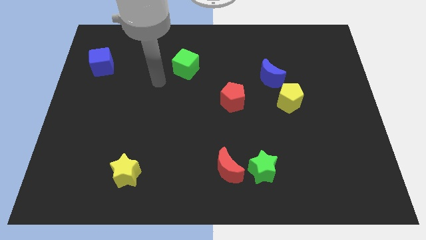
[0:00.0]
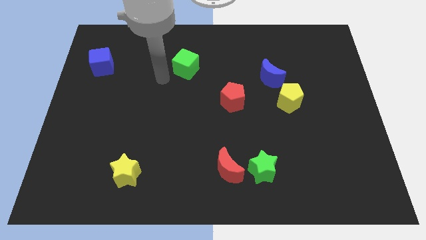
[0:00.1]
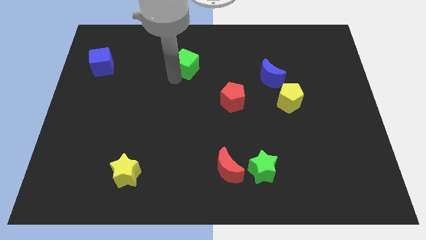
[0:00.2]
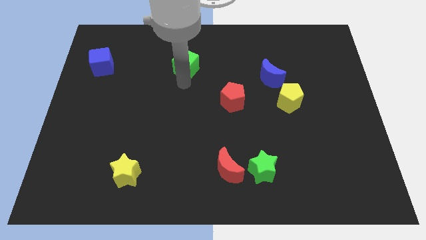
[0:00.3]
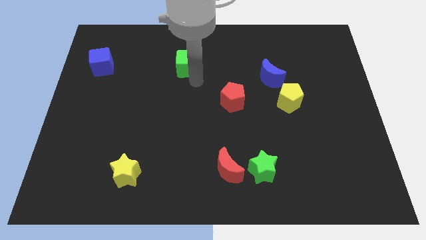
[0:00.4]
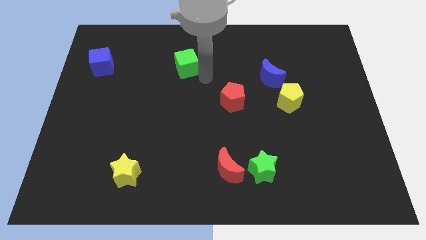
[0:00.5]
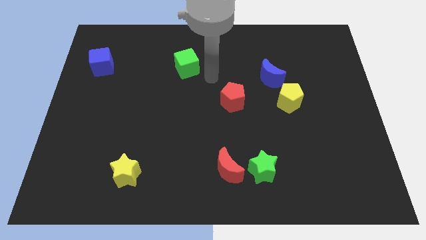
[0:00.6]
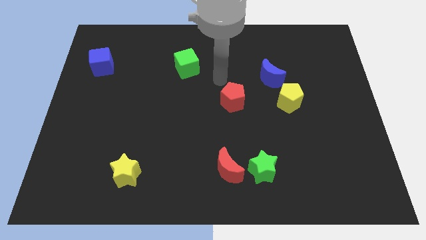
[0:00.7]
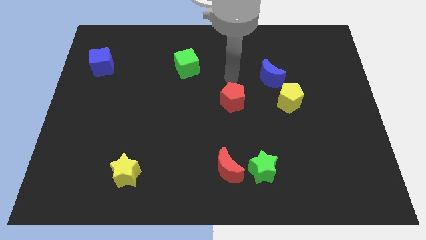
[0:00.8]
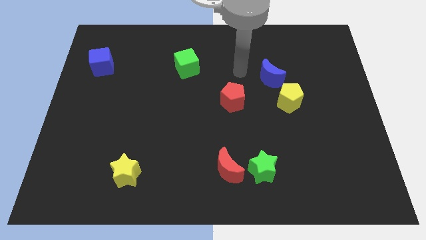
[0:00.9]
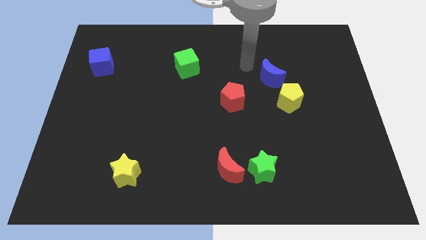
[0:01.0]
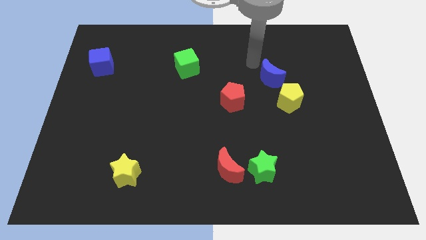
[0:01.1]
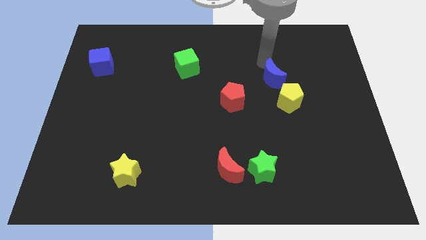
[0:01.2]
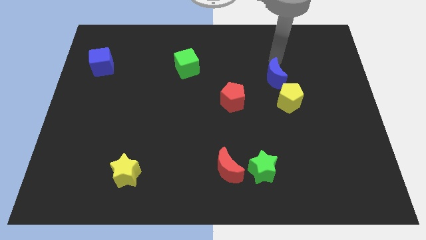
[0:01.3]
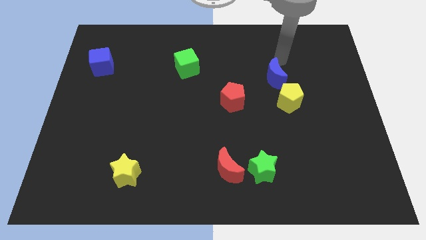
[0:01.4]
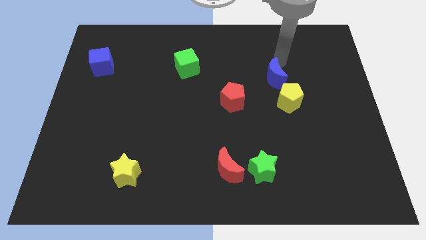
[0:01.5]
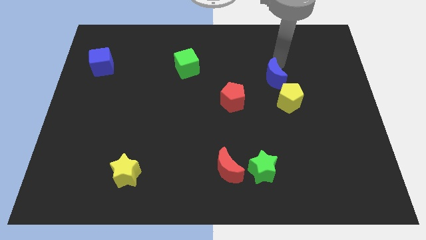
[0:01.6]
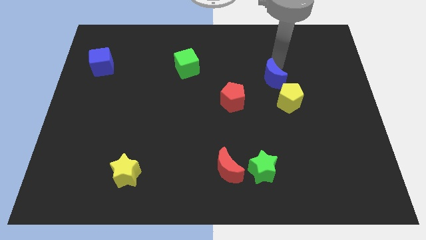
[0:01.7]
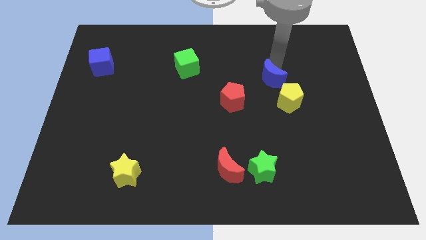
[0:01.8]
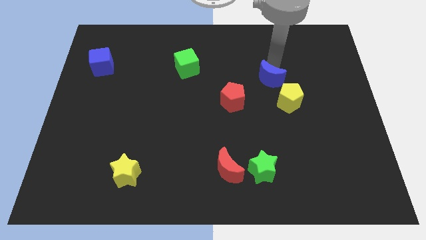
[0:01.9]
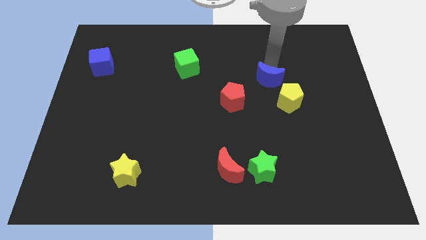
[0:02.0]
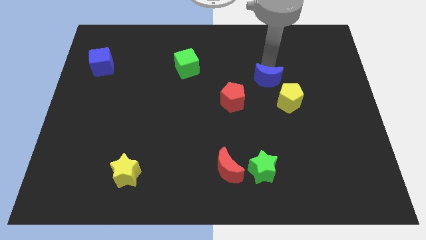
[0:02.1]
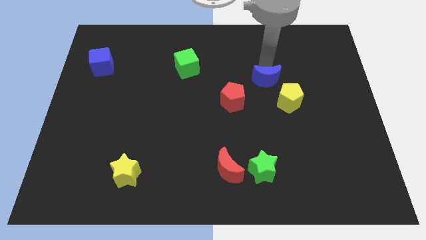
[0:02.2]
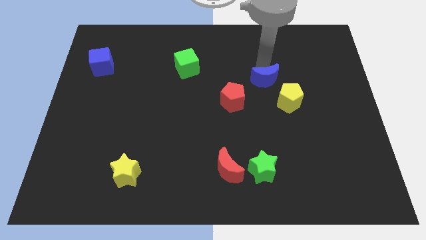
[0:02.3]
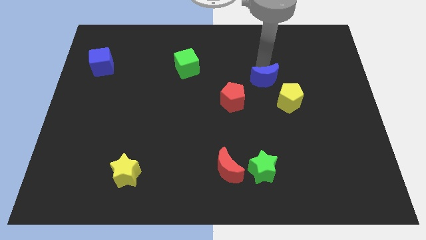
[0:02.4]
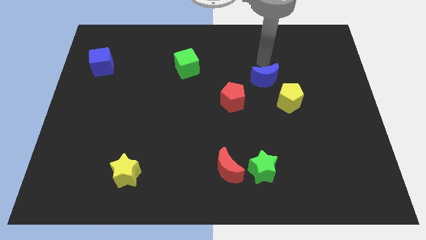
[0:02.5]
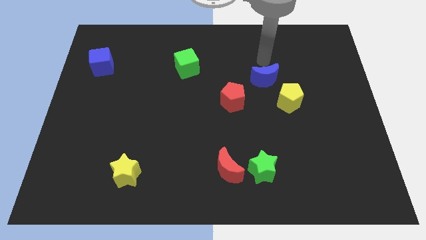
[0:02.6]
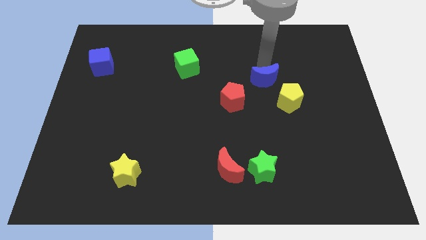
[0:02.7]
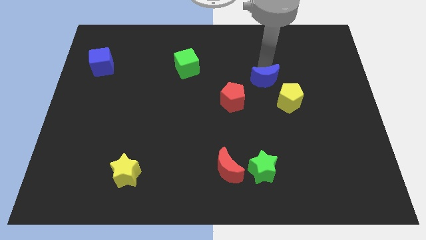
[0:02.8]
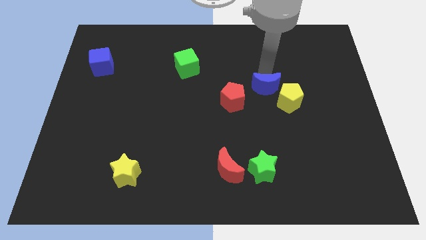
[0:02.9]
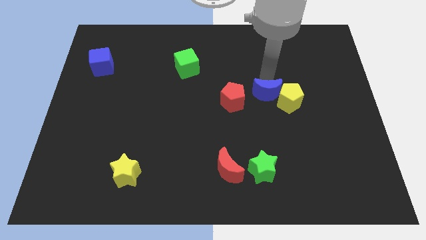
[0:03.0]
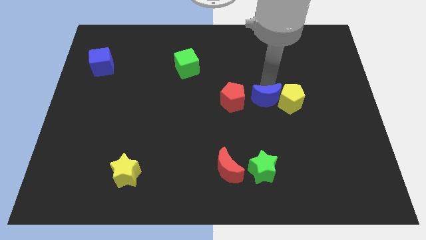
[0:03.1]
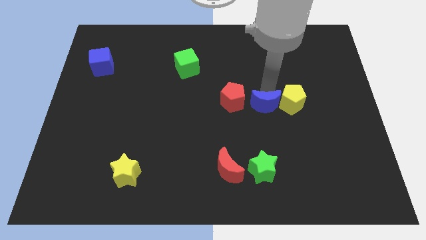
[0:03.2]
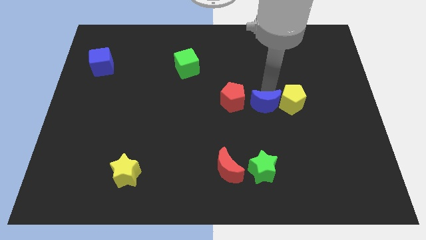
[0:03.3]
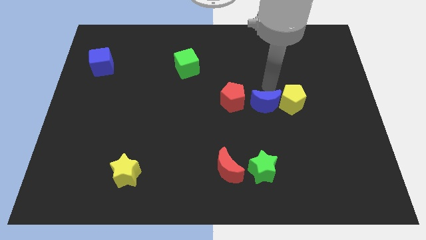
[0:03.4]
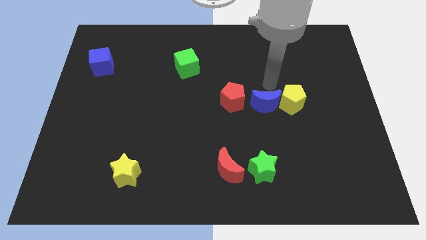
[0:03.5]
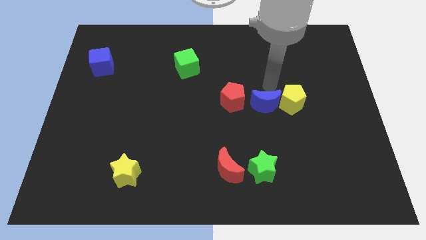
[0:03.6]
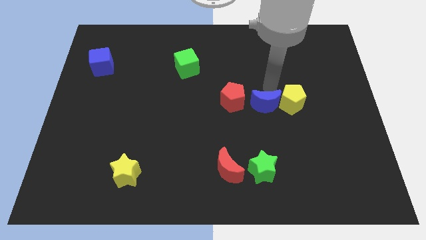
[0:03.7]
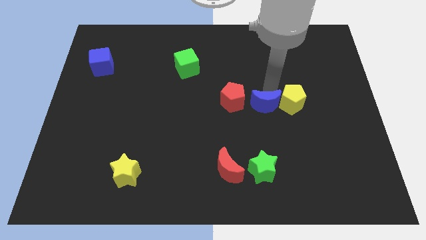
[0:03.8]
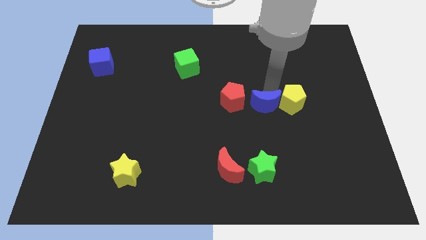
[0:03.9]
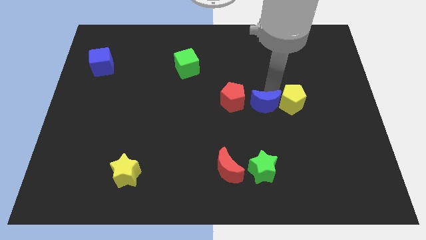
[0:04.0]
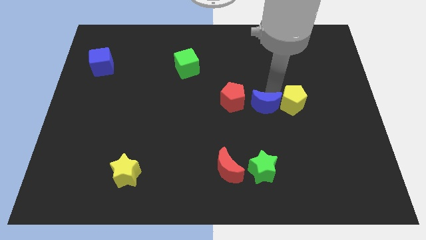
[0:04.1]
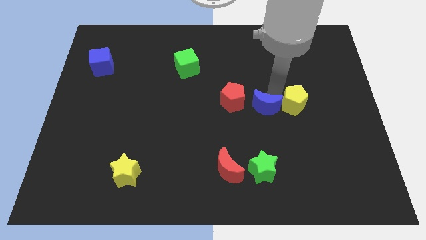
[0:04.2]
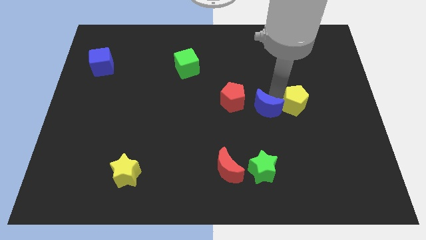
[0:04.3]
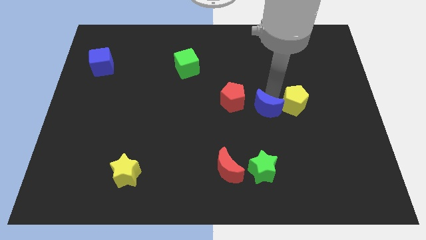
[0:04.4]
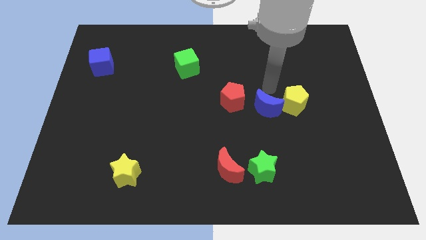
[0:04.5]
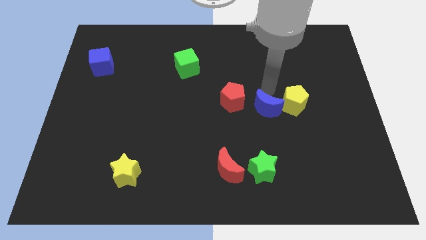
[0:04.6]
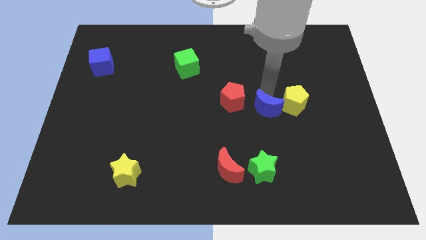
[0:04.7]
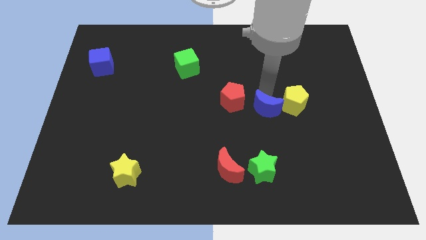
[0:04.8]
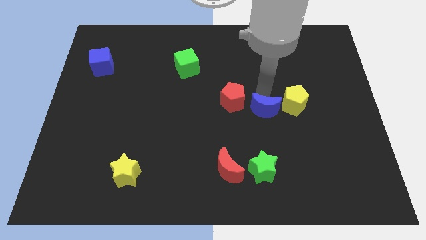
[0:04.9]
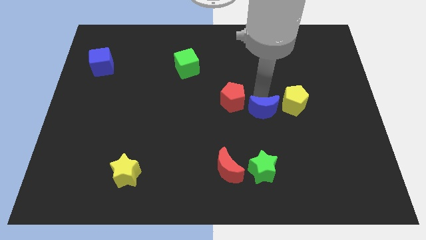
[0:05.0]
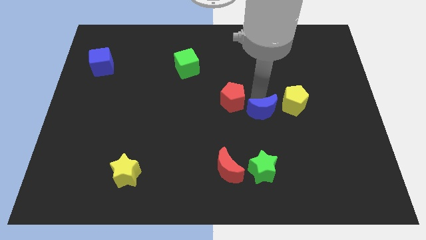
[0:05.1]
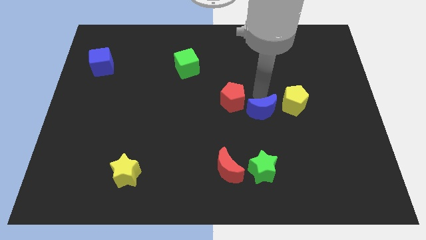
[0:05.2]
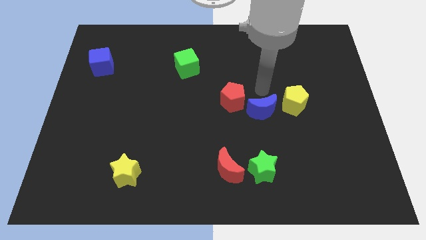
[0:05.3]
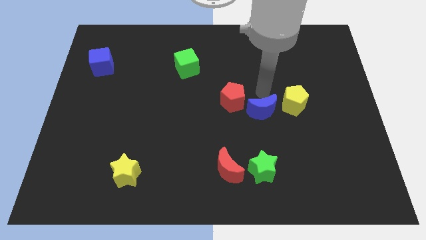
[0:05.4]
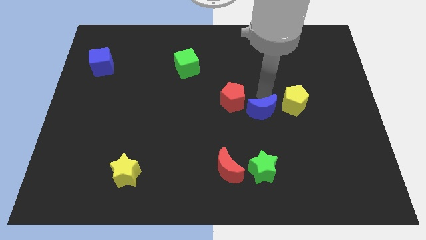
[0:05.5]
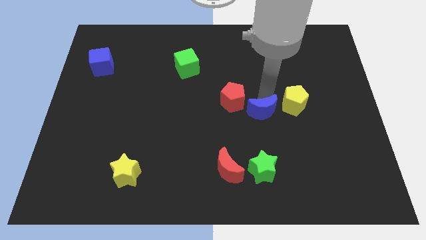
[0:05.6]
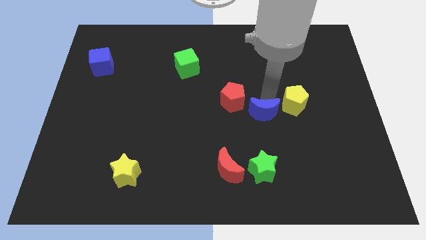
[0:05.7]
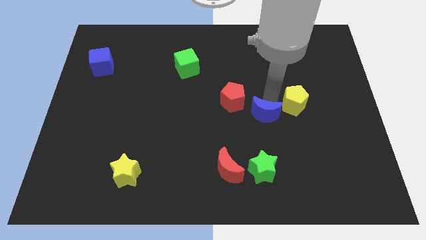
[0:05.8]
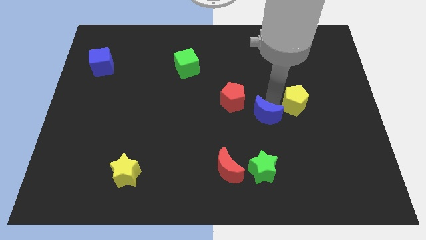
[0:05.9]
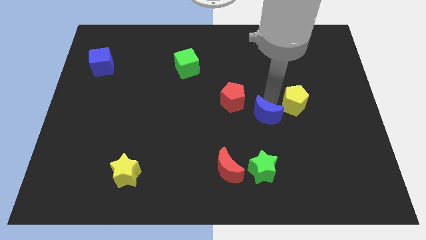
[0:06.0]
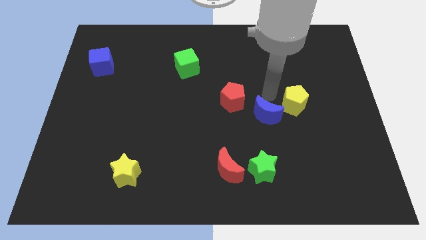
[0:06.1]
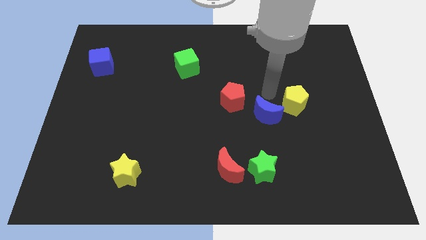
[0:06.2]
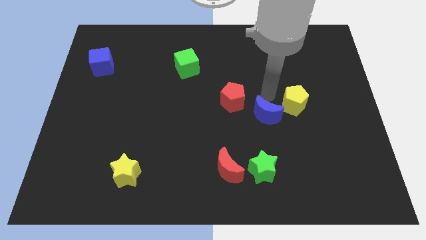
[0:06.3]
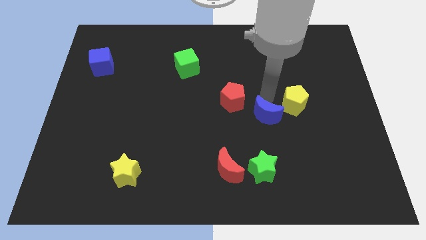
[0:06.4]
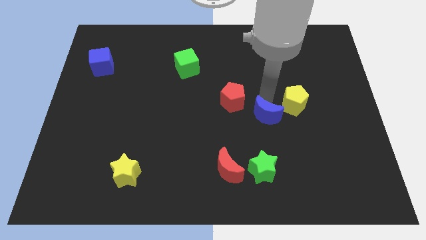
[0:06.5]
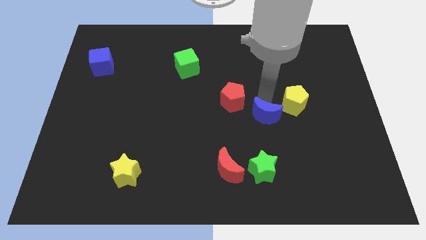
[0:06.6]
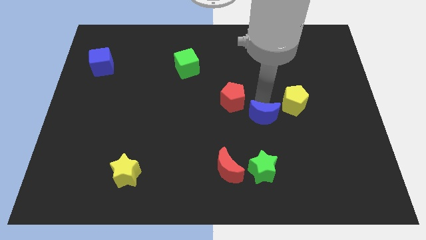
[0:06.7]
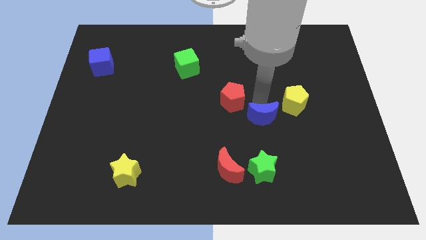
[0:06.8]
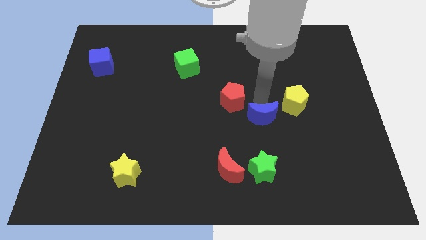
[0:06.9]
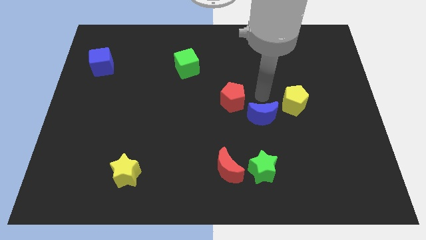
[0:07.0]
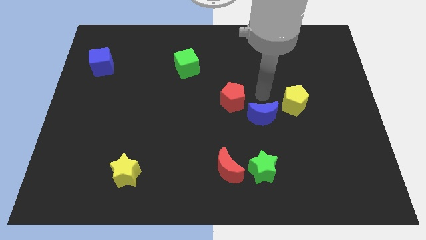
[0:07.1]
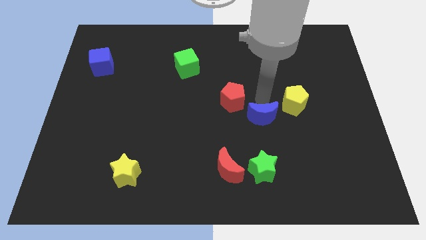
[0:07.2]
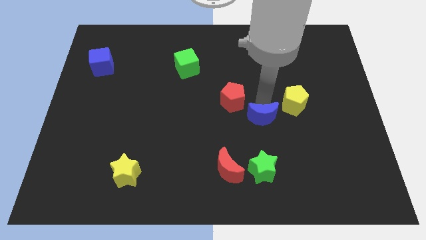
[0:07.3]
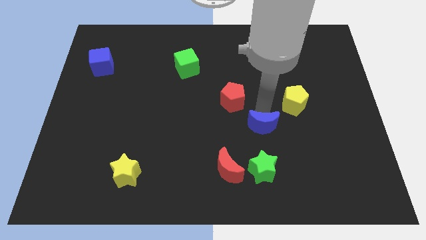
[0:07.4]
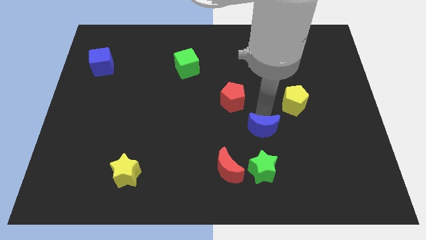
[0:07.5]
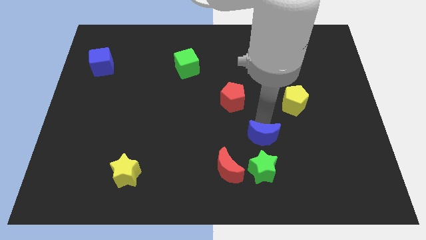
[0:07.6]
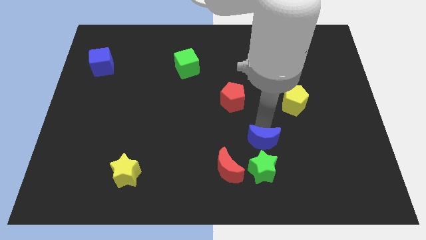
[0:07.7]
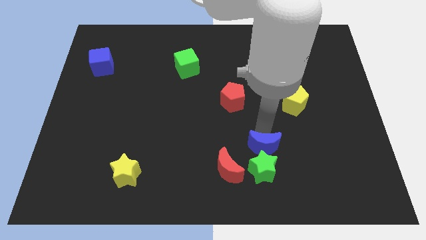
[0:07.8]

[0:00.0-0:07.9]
put the blue moon to the green star
